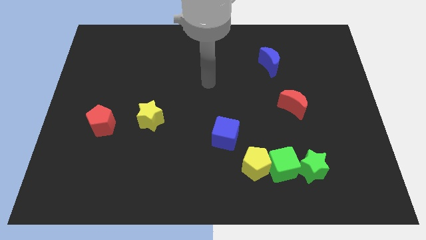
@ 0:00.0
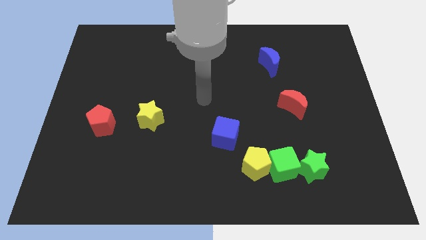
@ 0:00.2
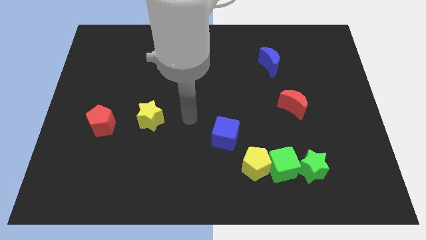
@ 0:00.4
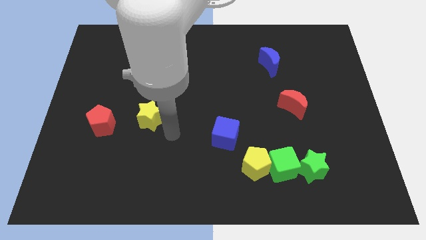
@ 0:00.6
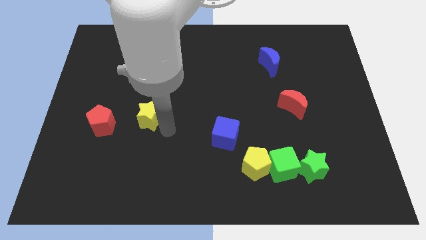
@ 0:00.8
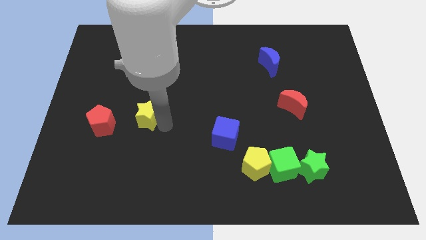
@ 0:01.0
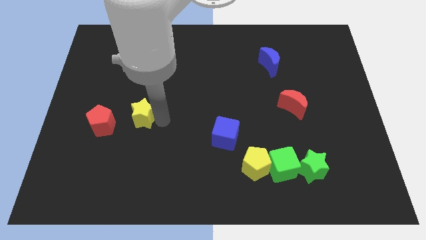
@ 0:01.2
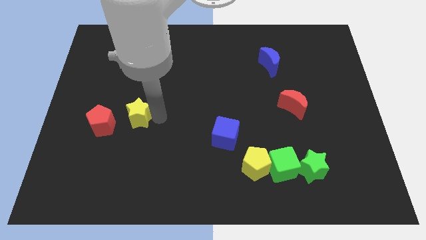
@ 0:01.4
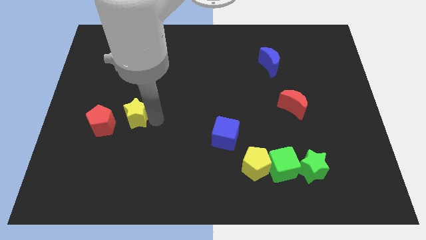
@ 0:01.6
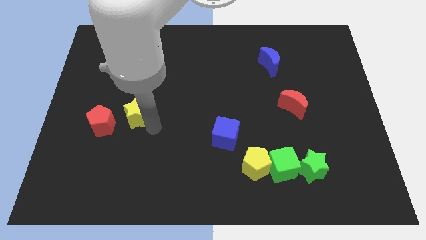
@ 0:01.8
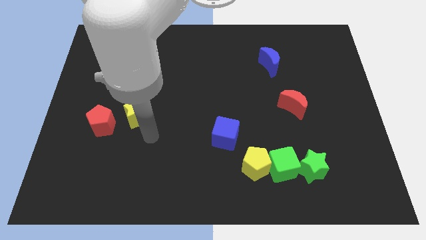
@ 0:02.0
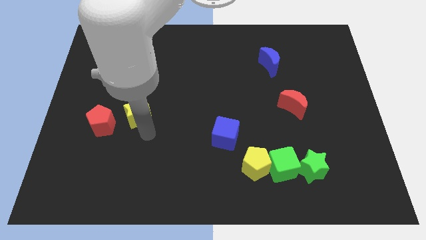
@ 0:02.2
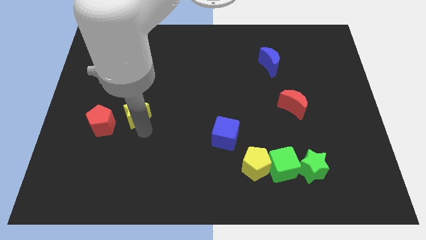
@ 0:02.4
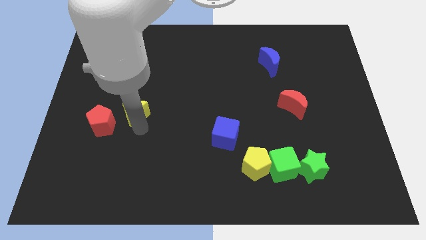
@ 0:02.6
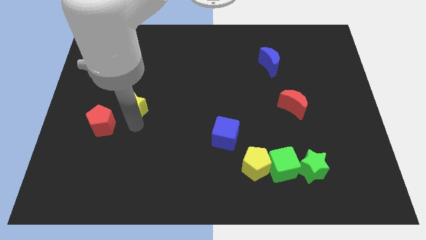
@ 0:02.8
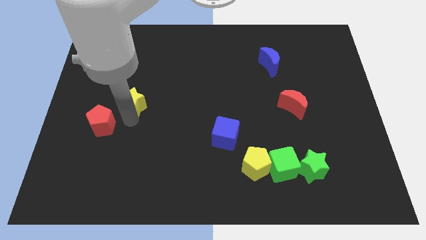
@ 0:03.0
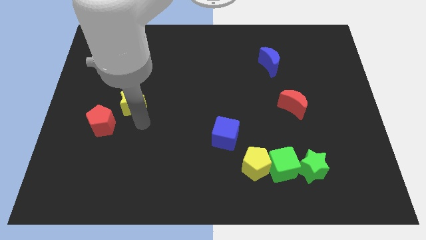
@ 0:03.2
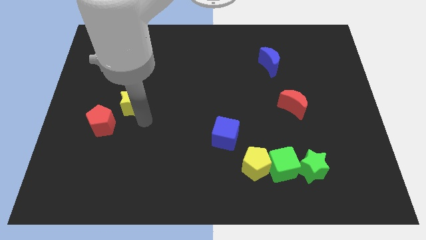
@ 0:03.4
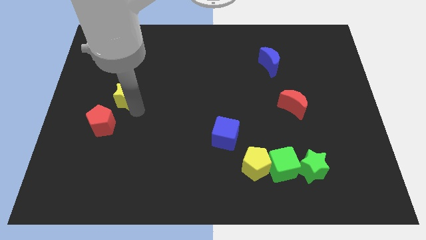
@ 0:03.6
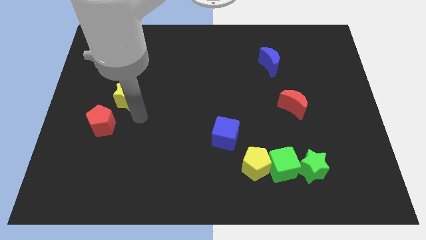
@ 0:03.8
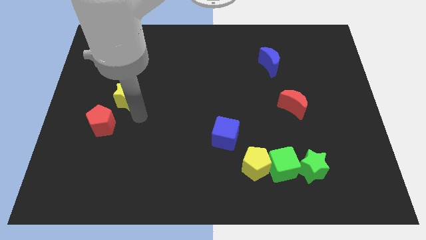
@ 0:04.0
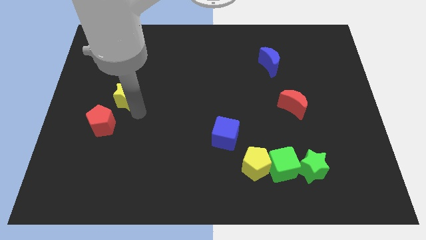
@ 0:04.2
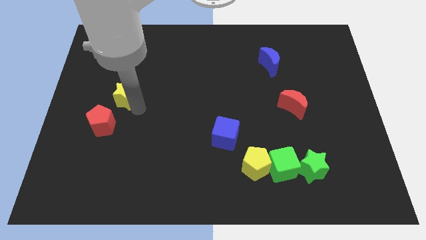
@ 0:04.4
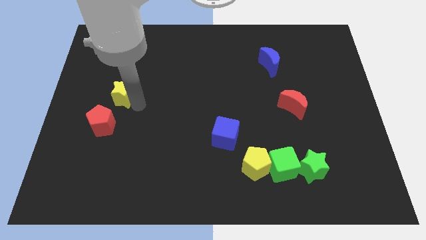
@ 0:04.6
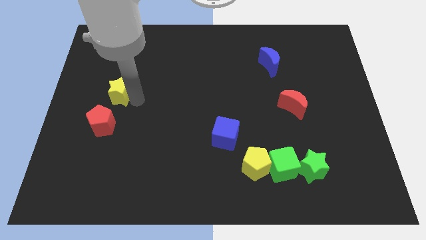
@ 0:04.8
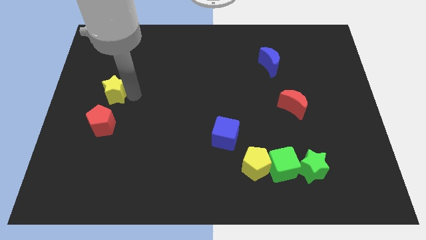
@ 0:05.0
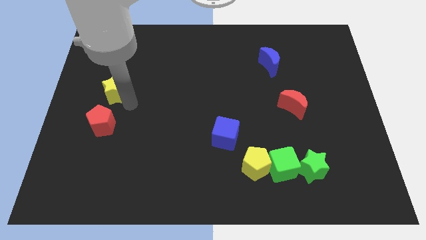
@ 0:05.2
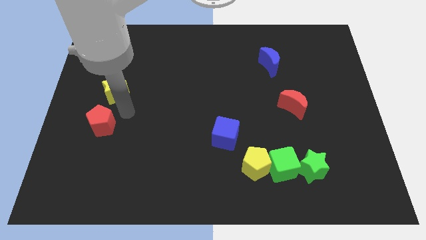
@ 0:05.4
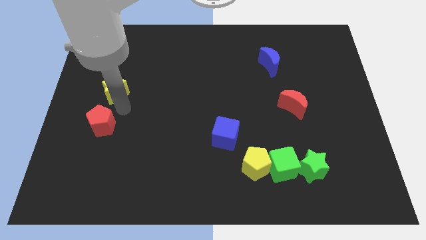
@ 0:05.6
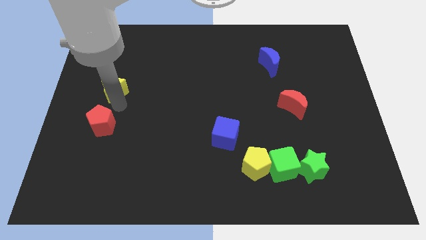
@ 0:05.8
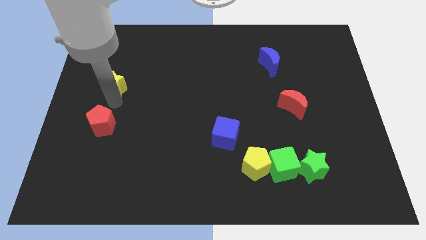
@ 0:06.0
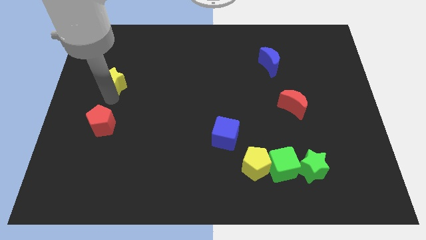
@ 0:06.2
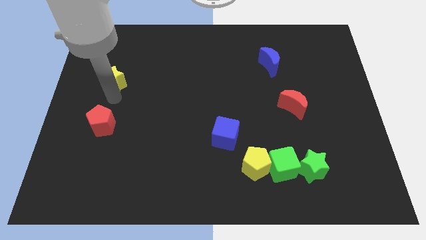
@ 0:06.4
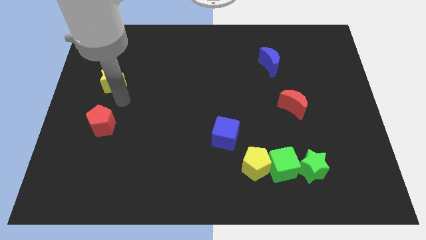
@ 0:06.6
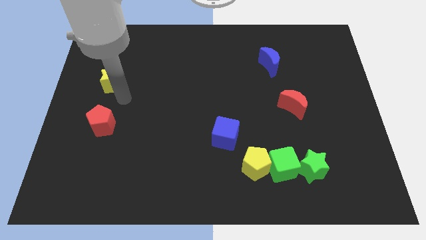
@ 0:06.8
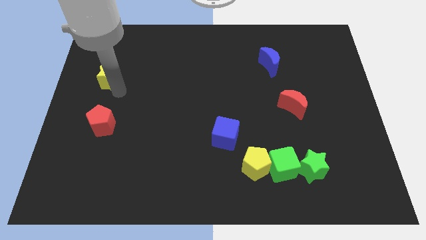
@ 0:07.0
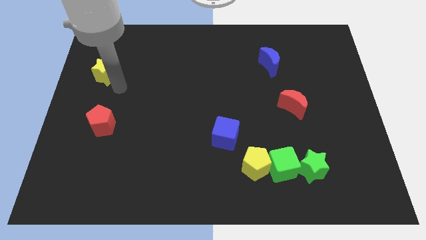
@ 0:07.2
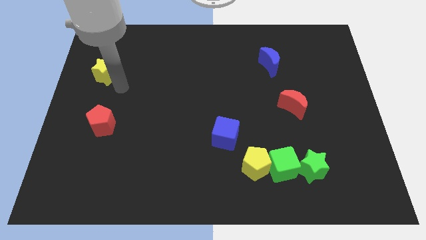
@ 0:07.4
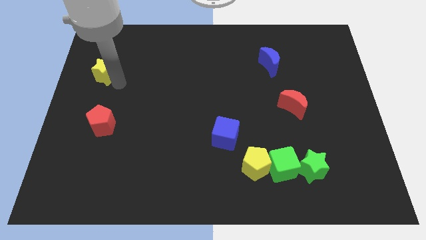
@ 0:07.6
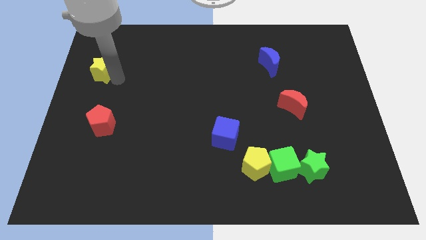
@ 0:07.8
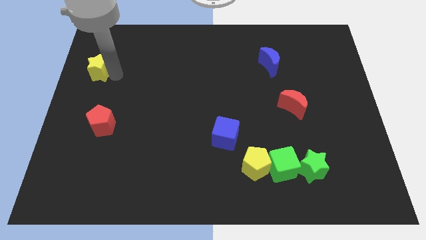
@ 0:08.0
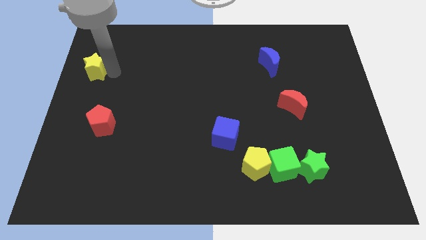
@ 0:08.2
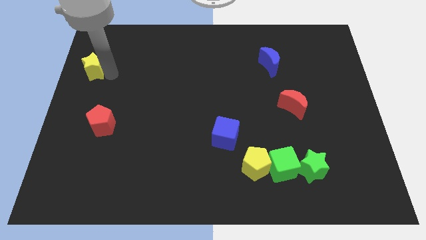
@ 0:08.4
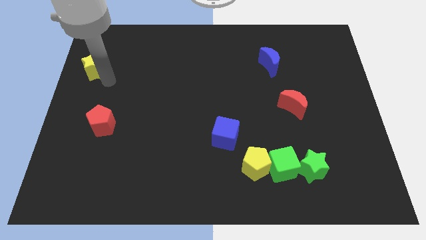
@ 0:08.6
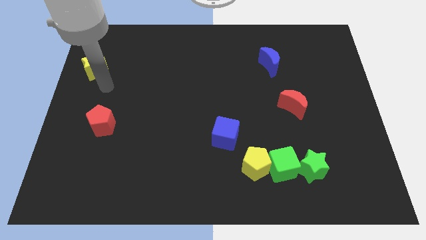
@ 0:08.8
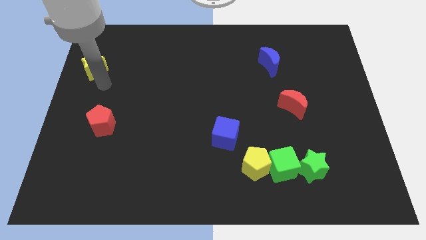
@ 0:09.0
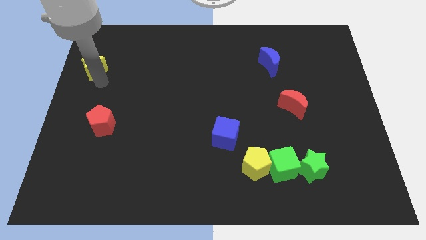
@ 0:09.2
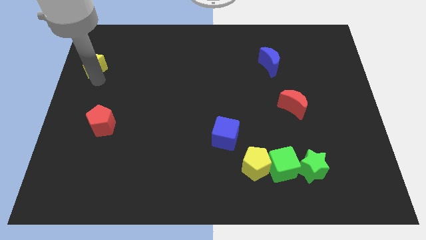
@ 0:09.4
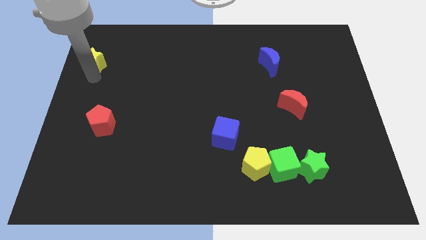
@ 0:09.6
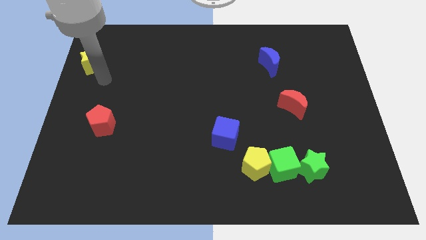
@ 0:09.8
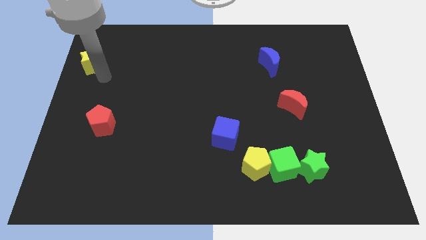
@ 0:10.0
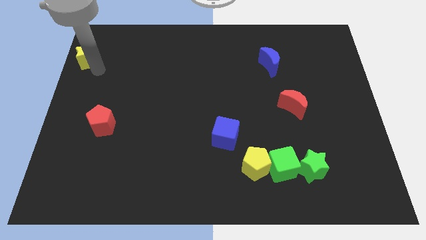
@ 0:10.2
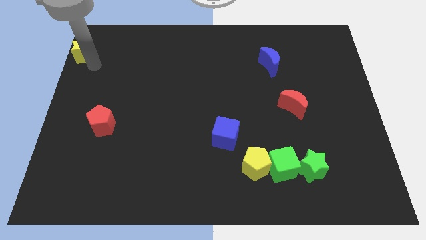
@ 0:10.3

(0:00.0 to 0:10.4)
slide the yellow star to the upper left corner

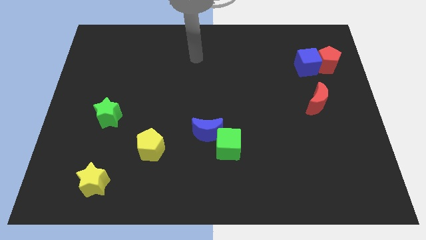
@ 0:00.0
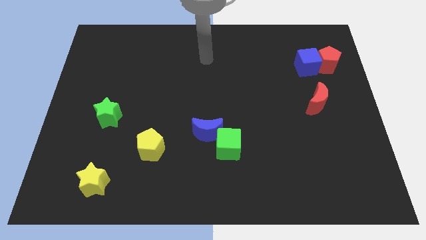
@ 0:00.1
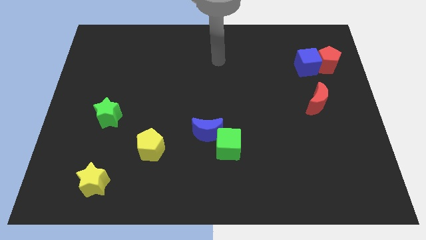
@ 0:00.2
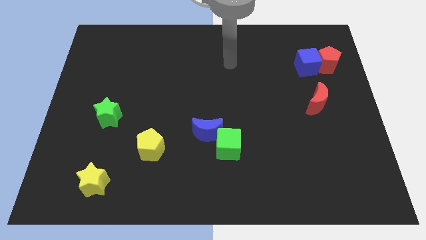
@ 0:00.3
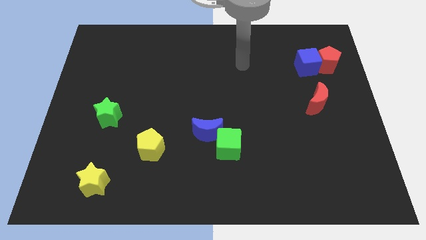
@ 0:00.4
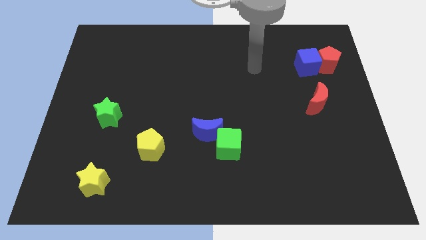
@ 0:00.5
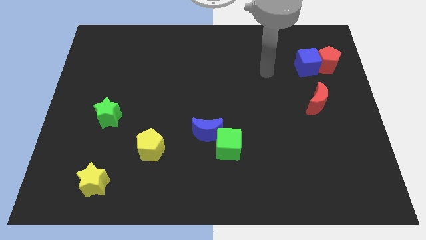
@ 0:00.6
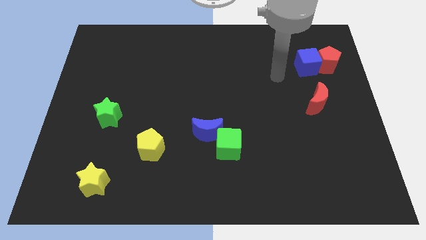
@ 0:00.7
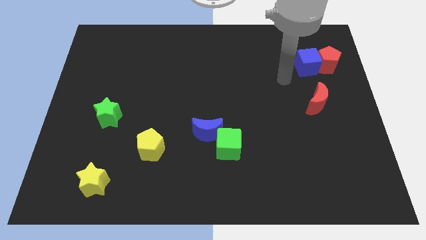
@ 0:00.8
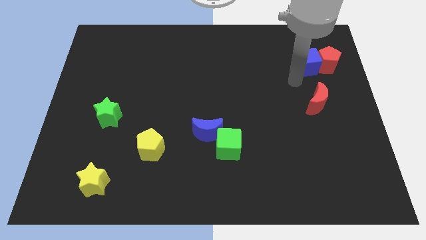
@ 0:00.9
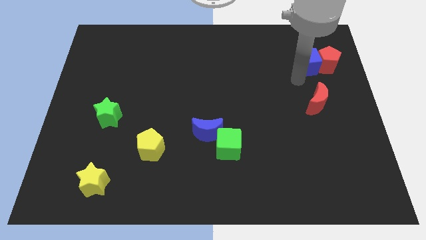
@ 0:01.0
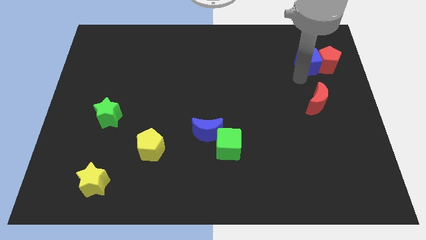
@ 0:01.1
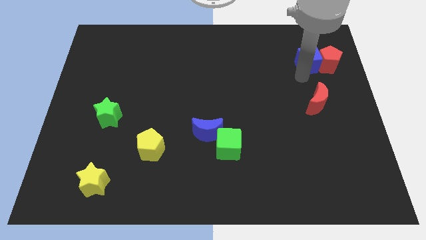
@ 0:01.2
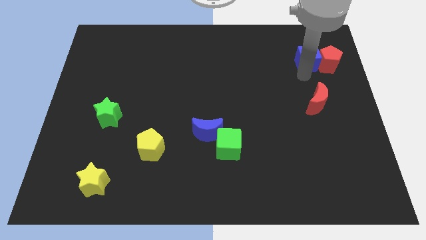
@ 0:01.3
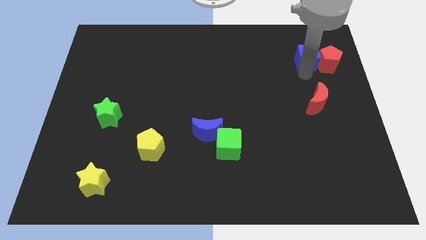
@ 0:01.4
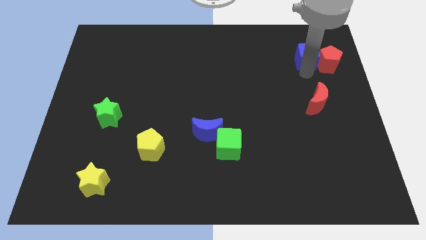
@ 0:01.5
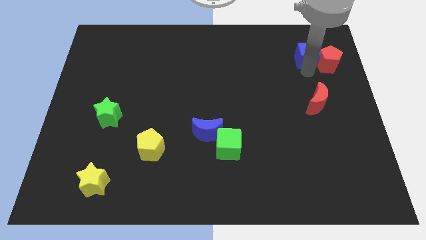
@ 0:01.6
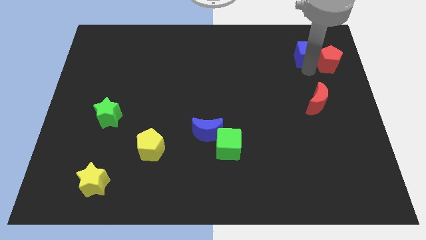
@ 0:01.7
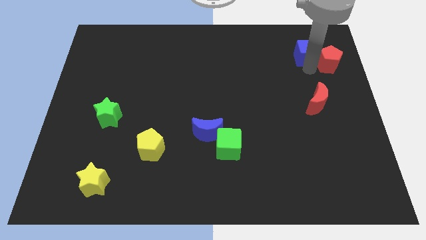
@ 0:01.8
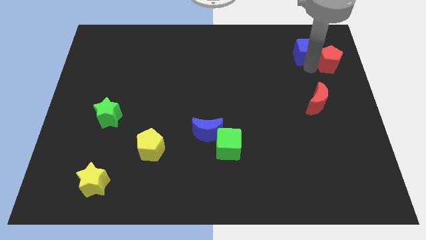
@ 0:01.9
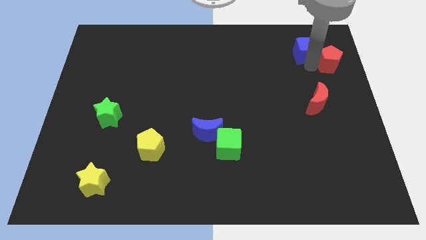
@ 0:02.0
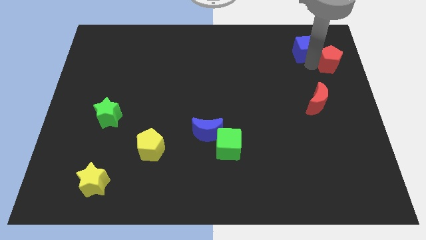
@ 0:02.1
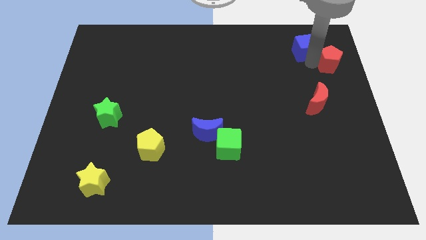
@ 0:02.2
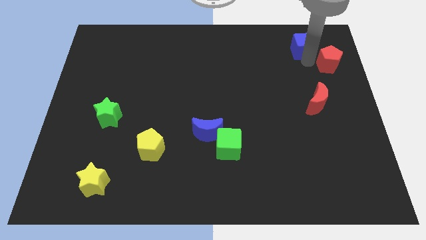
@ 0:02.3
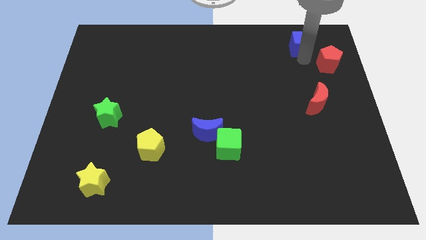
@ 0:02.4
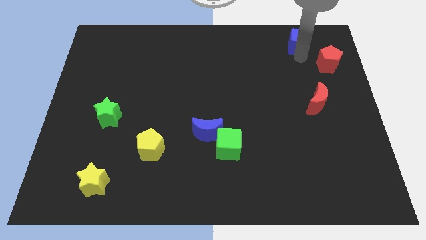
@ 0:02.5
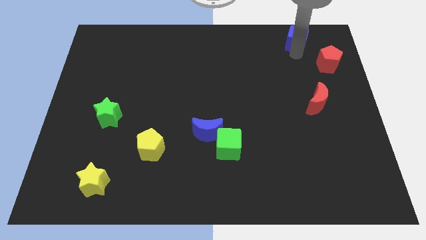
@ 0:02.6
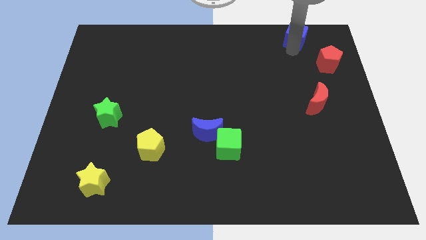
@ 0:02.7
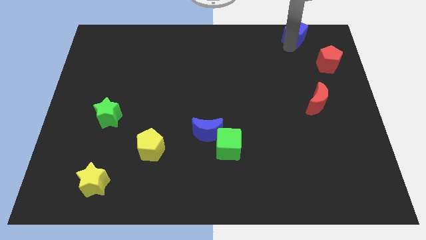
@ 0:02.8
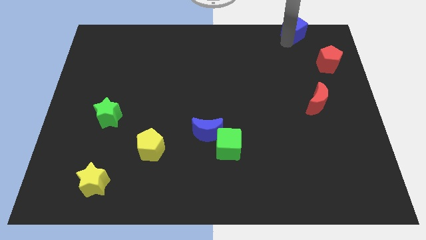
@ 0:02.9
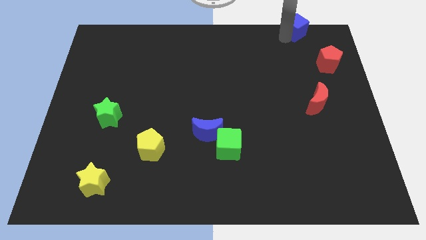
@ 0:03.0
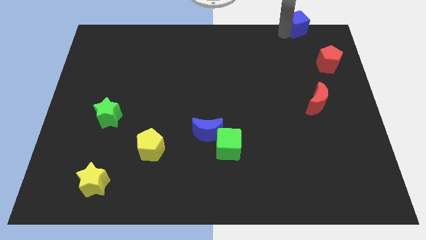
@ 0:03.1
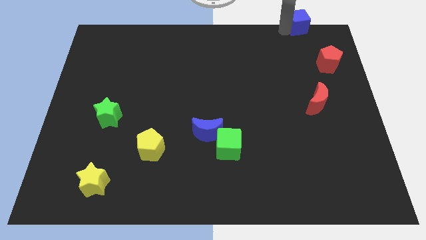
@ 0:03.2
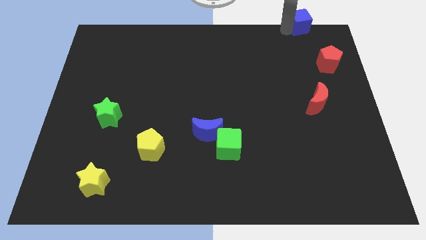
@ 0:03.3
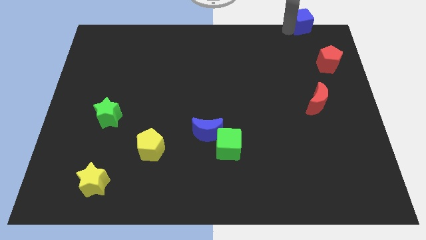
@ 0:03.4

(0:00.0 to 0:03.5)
push the blue cube to the upper right corner
